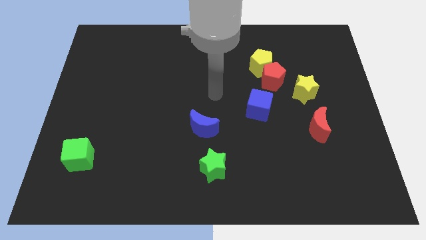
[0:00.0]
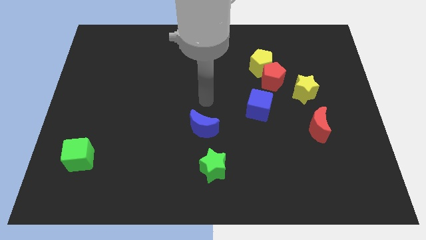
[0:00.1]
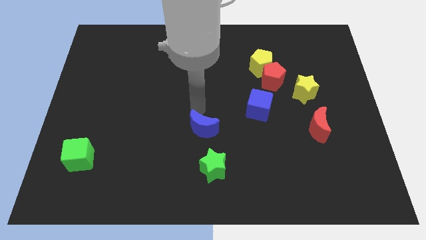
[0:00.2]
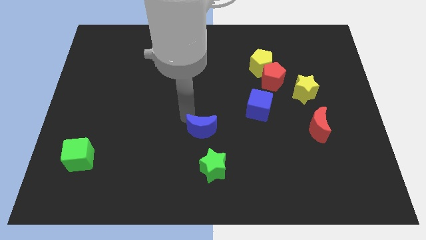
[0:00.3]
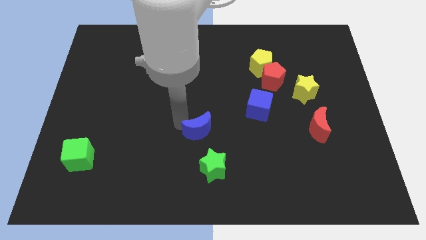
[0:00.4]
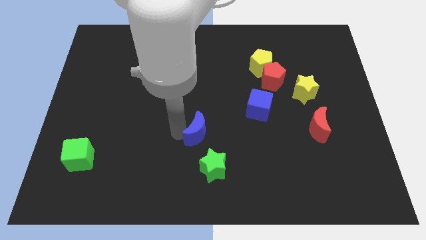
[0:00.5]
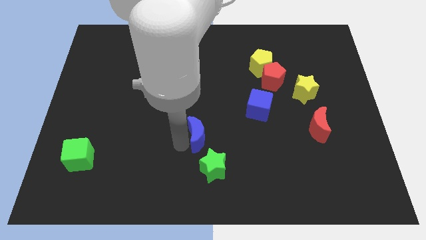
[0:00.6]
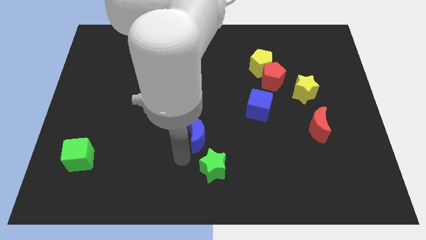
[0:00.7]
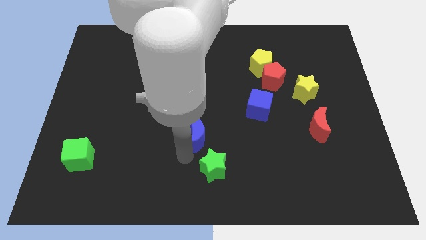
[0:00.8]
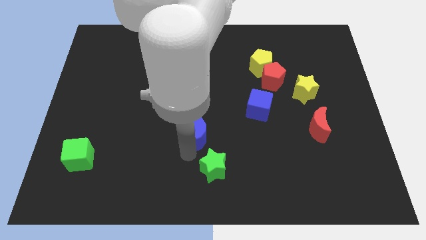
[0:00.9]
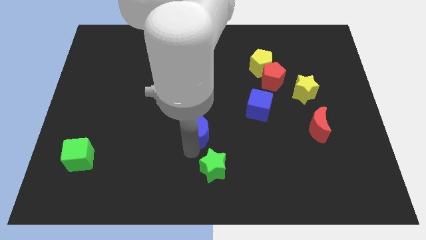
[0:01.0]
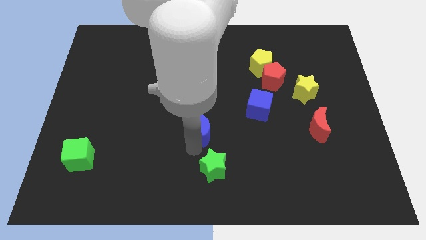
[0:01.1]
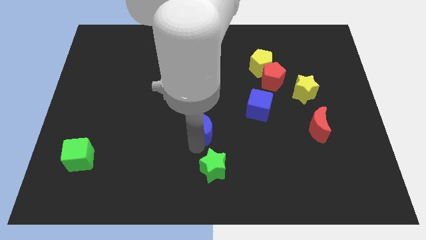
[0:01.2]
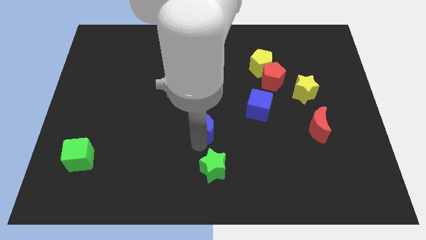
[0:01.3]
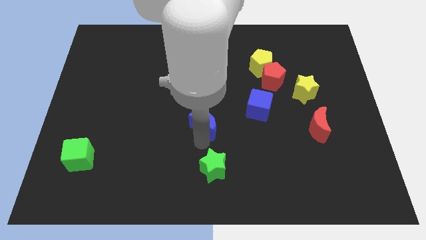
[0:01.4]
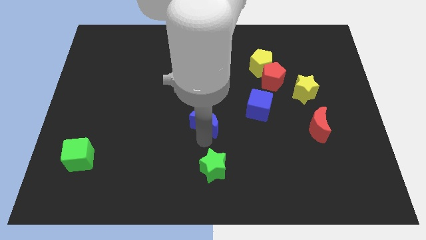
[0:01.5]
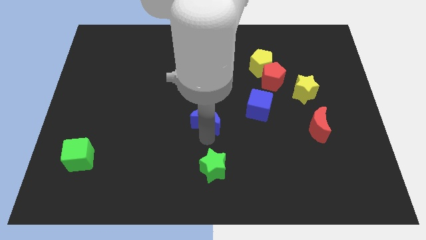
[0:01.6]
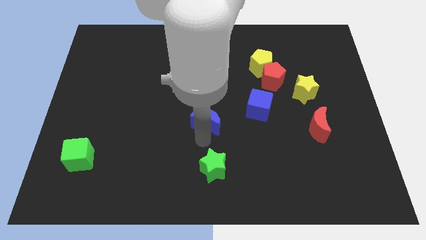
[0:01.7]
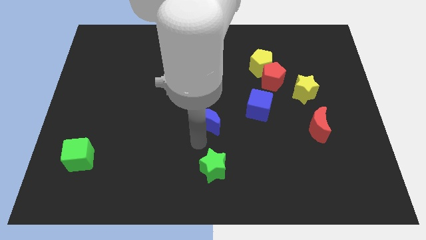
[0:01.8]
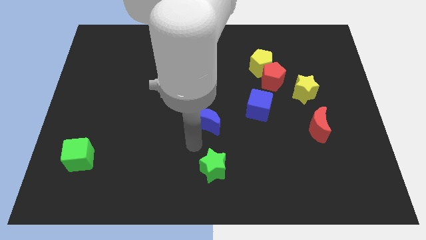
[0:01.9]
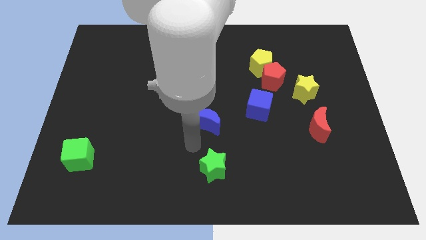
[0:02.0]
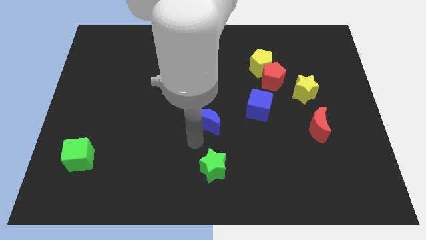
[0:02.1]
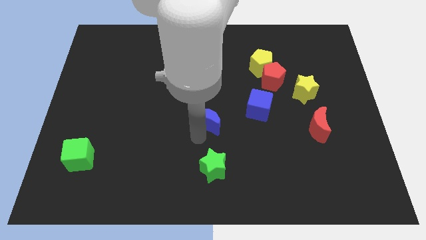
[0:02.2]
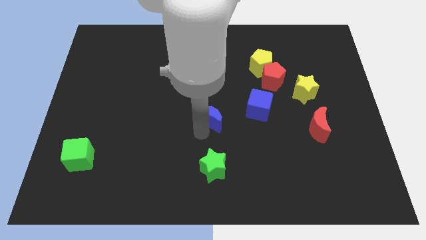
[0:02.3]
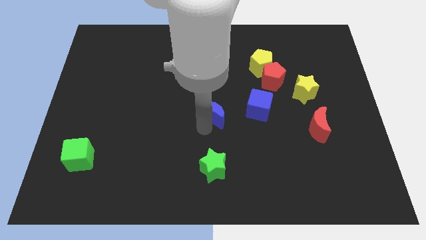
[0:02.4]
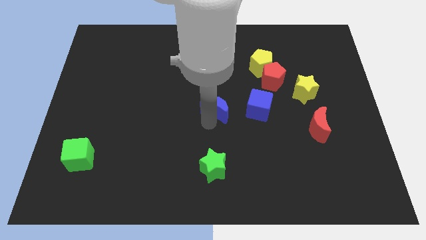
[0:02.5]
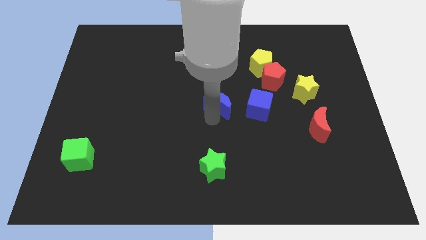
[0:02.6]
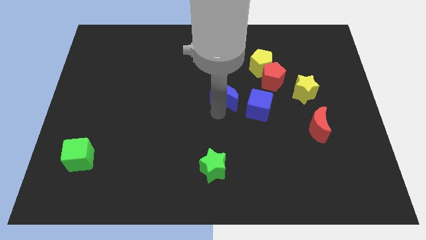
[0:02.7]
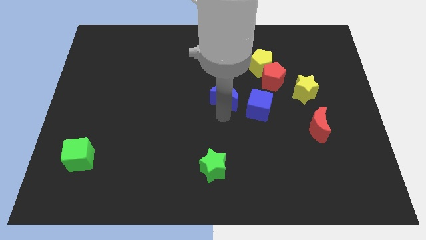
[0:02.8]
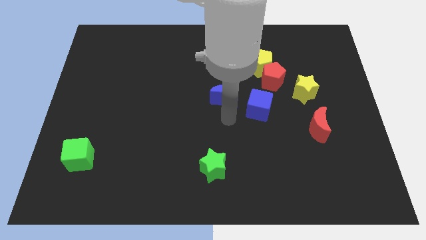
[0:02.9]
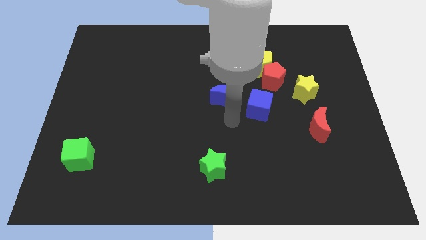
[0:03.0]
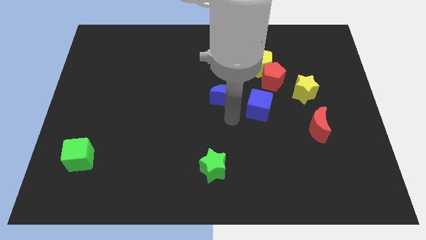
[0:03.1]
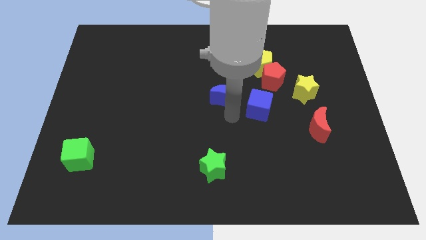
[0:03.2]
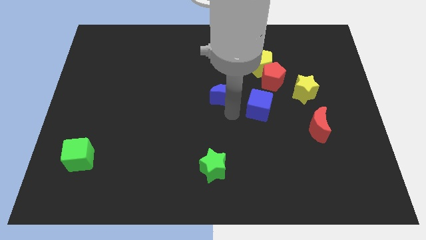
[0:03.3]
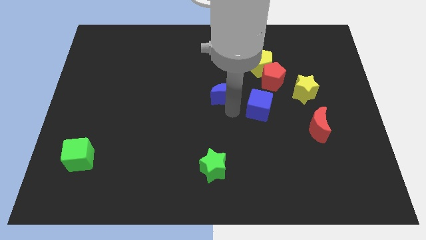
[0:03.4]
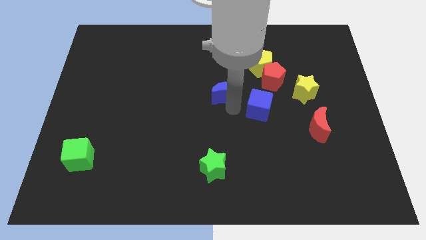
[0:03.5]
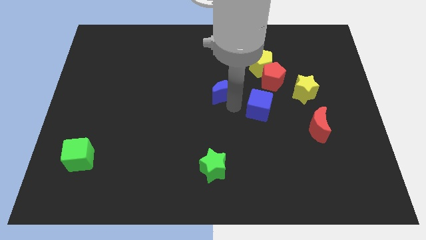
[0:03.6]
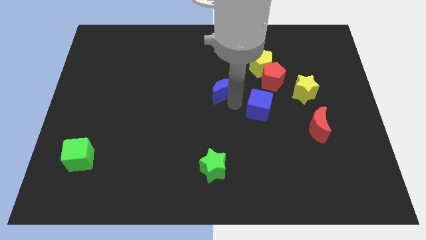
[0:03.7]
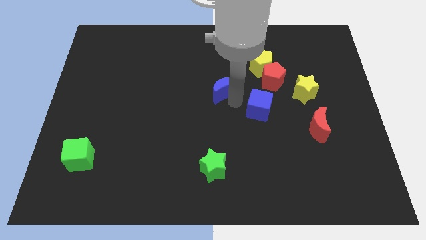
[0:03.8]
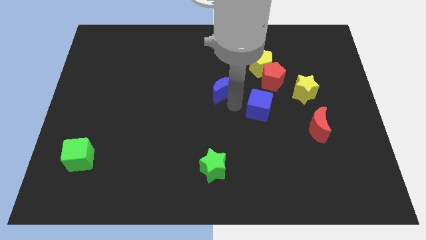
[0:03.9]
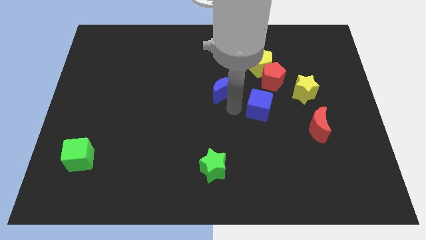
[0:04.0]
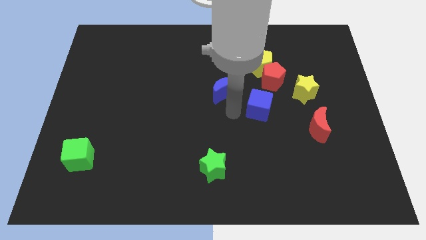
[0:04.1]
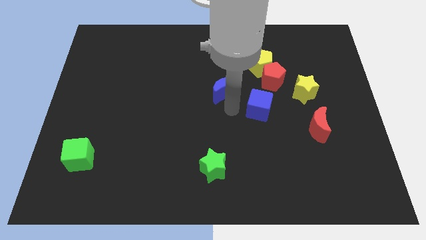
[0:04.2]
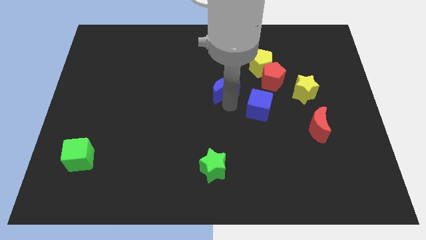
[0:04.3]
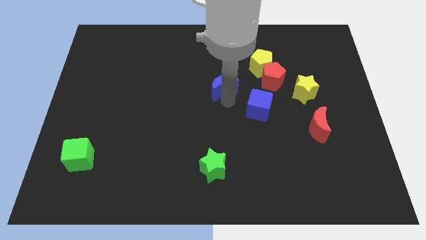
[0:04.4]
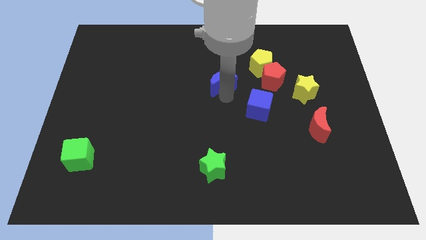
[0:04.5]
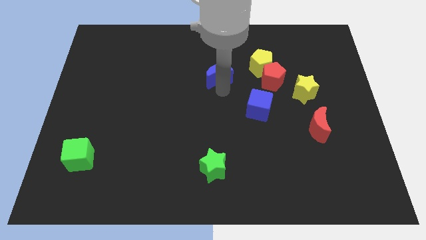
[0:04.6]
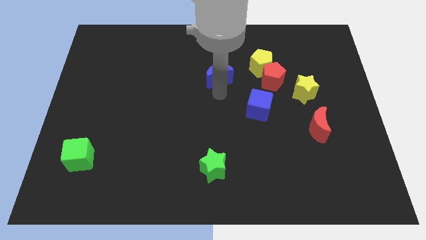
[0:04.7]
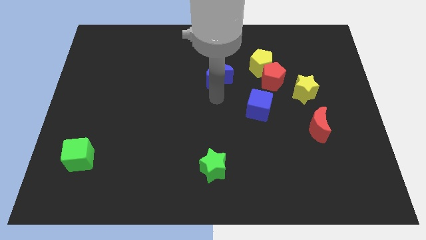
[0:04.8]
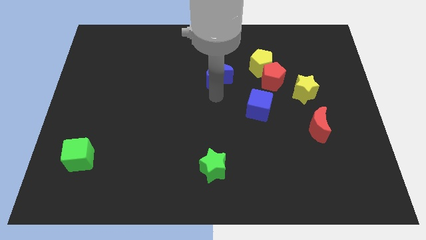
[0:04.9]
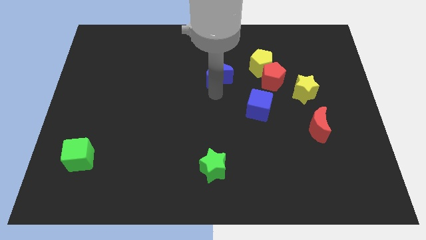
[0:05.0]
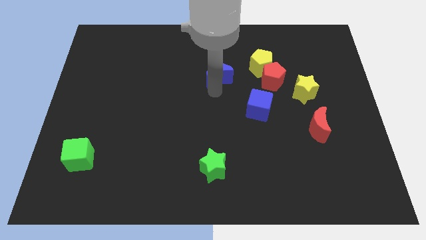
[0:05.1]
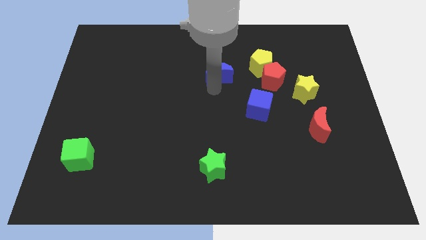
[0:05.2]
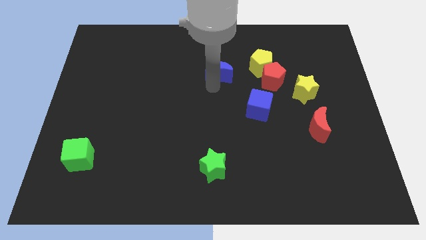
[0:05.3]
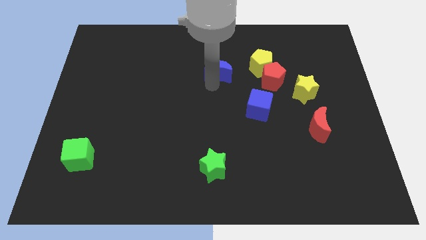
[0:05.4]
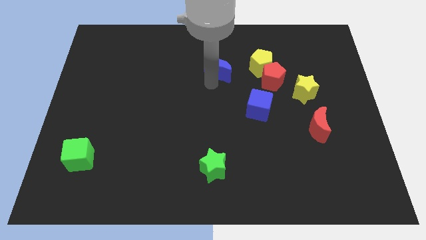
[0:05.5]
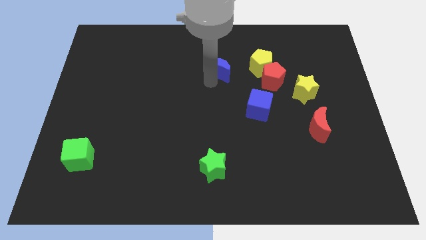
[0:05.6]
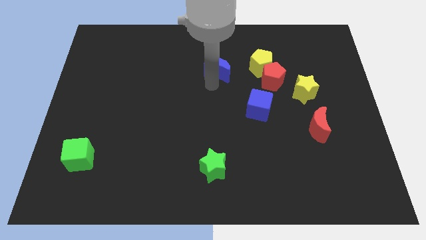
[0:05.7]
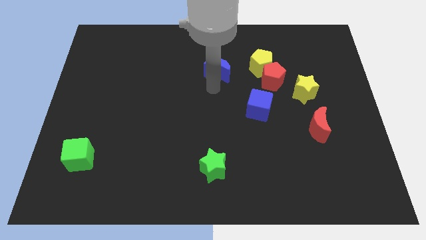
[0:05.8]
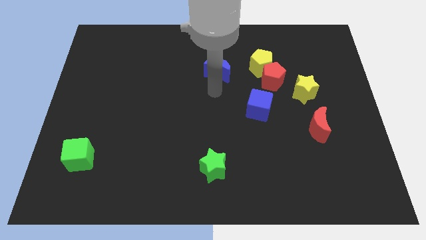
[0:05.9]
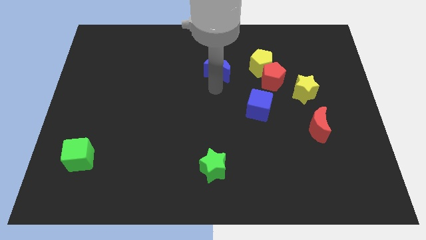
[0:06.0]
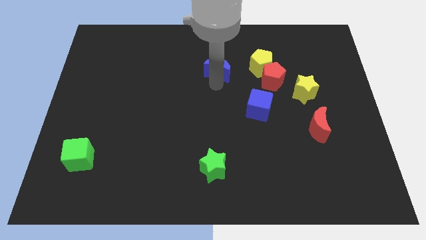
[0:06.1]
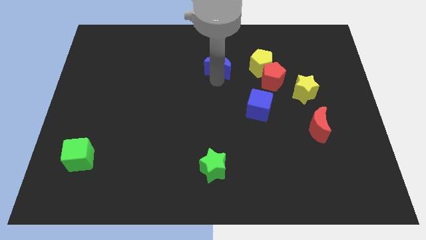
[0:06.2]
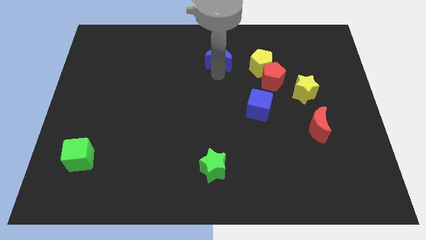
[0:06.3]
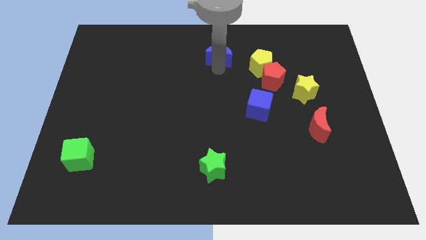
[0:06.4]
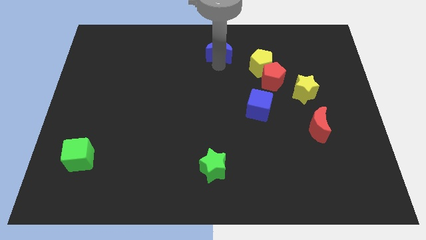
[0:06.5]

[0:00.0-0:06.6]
put the blue moon to the top side
